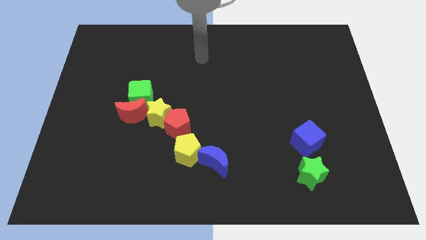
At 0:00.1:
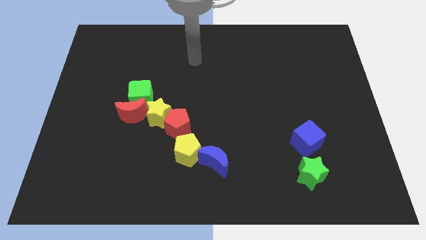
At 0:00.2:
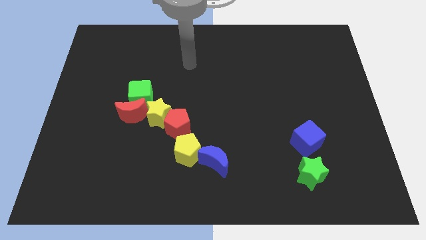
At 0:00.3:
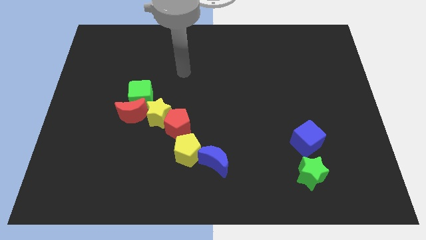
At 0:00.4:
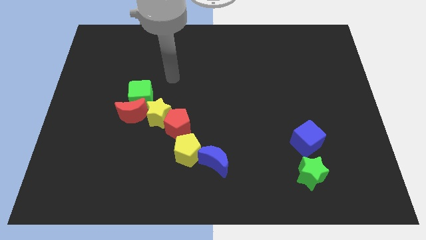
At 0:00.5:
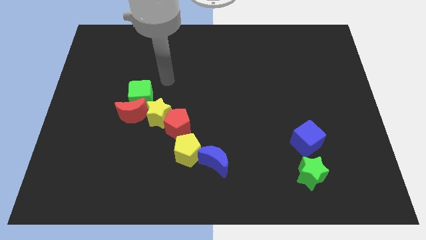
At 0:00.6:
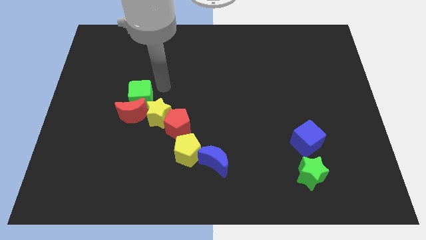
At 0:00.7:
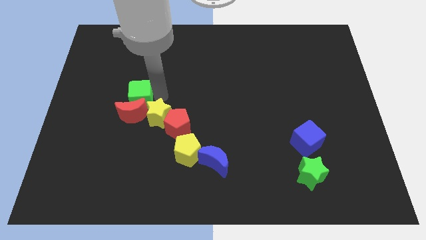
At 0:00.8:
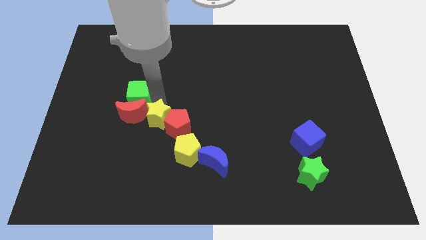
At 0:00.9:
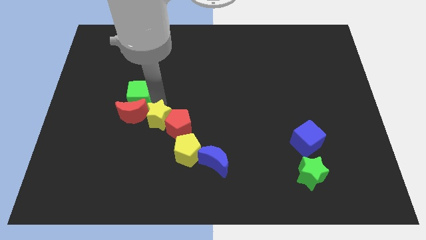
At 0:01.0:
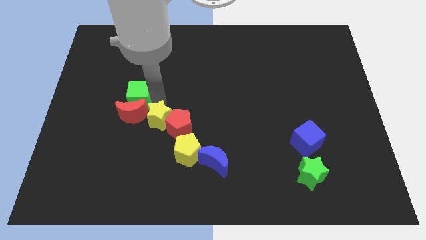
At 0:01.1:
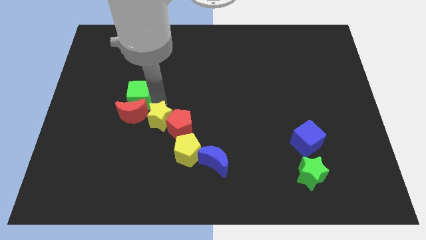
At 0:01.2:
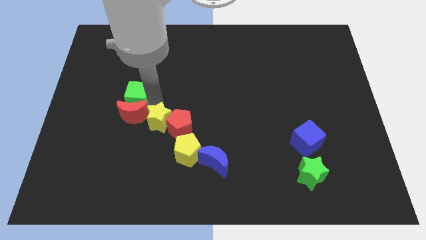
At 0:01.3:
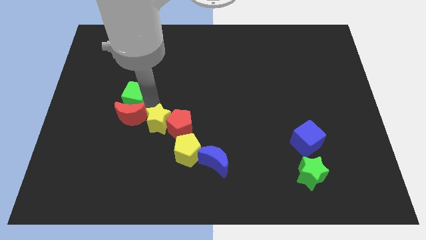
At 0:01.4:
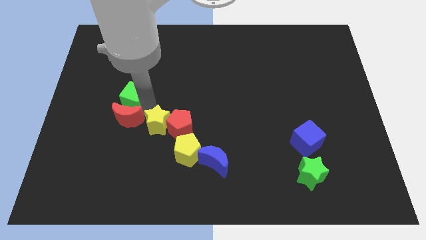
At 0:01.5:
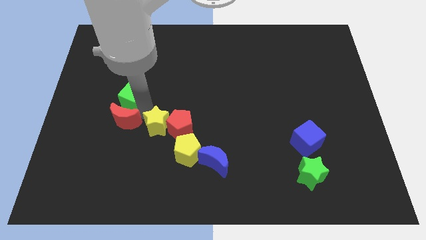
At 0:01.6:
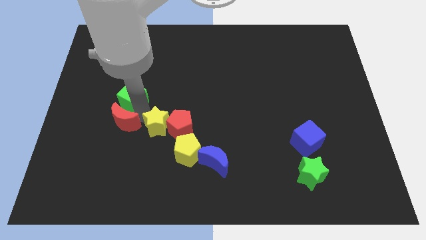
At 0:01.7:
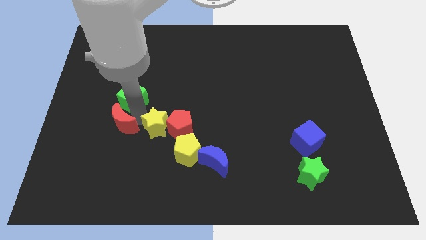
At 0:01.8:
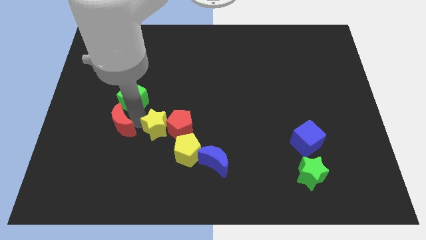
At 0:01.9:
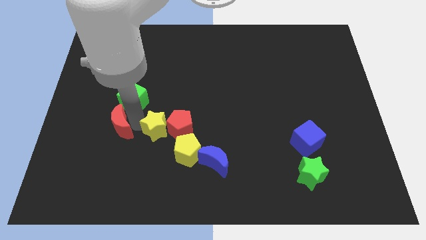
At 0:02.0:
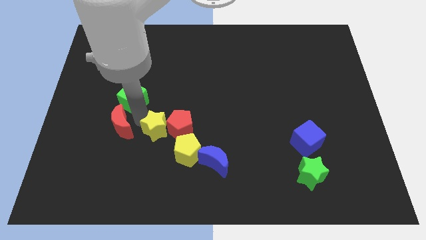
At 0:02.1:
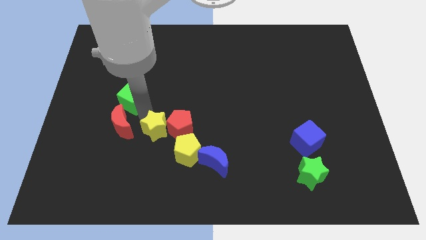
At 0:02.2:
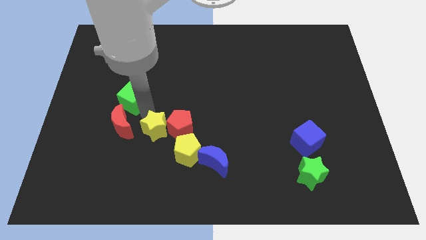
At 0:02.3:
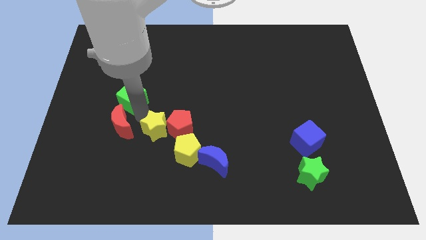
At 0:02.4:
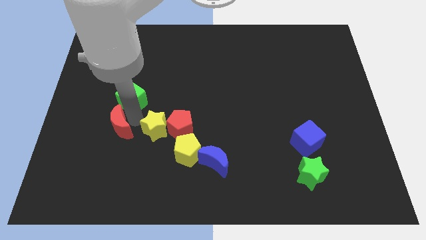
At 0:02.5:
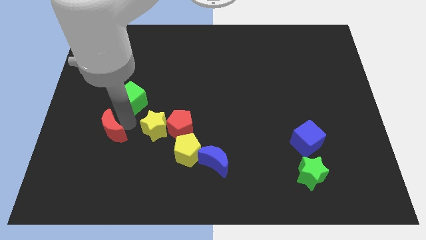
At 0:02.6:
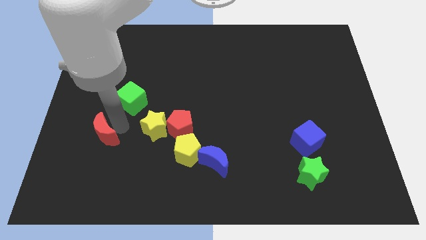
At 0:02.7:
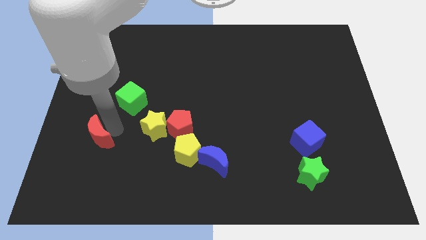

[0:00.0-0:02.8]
separate the red moon from the green cube and yellow star

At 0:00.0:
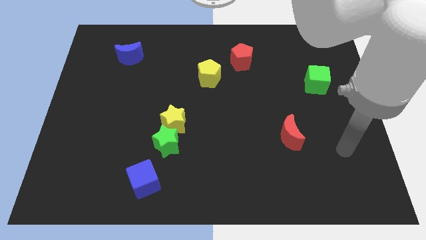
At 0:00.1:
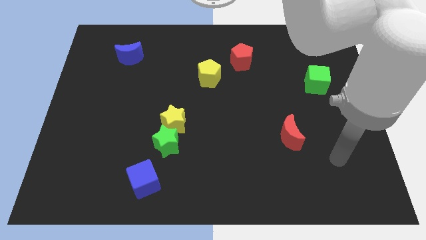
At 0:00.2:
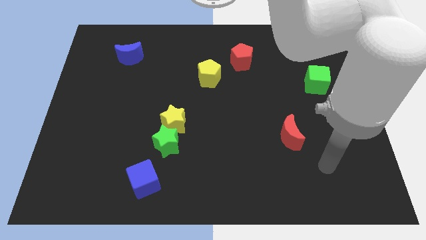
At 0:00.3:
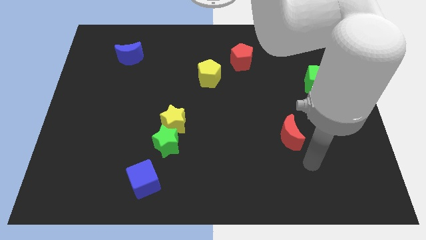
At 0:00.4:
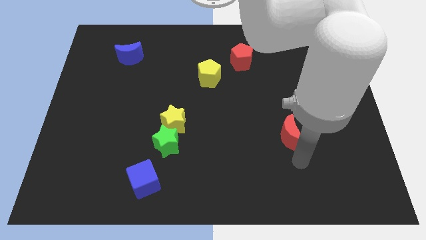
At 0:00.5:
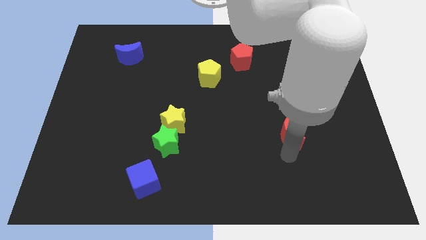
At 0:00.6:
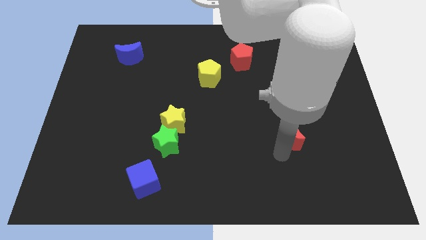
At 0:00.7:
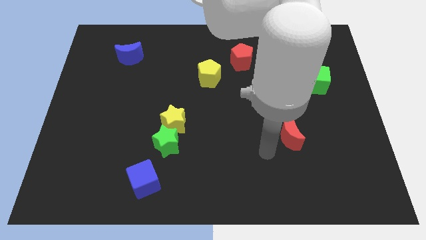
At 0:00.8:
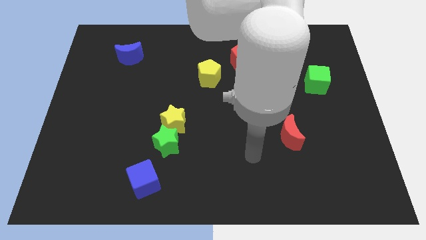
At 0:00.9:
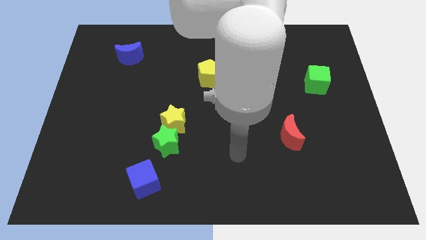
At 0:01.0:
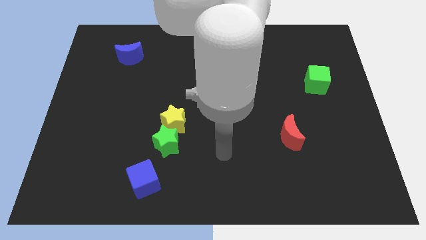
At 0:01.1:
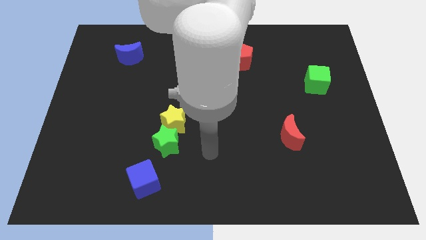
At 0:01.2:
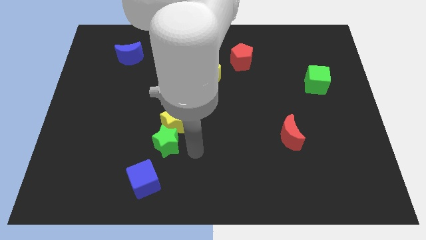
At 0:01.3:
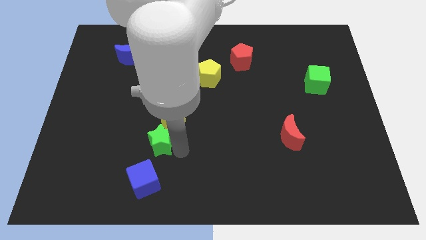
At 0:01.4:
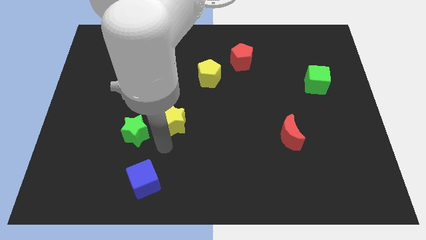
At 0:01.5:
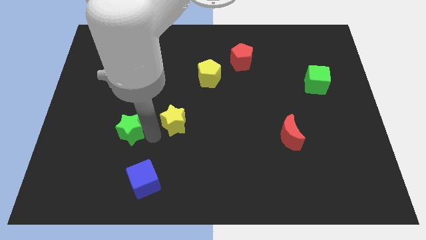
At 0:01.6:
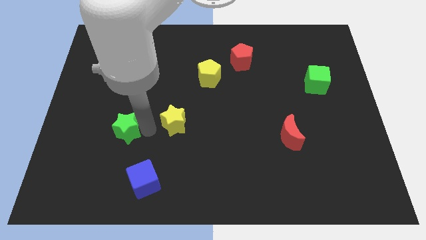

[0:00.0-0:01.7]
separate the yellow star from the green star

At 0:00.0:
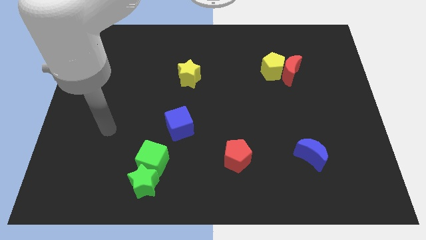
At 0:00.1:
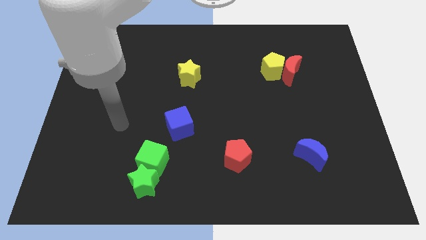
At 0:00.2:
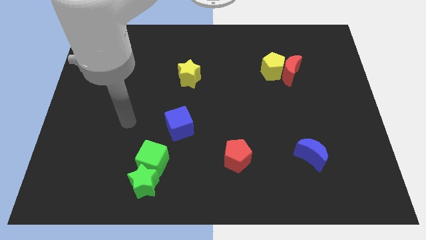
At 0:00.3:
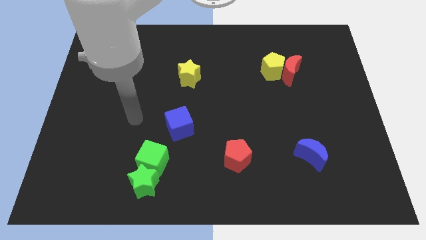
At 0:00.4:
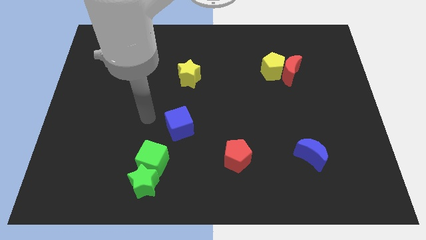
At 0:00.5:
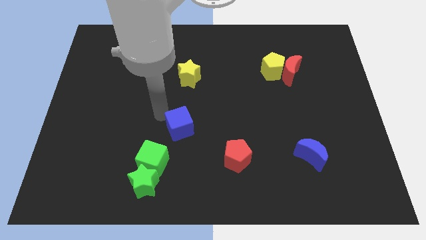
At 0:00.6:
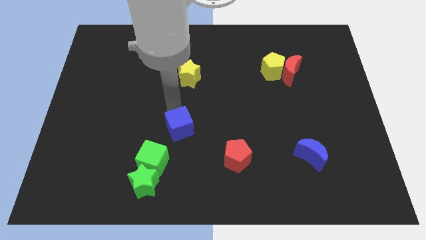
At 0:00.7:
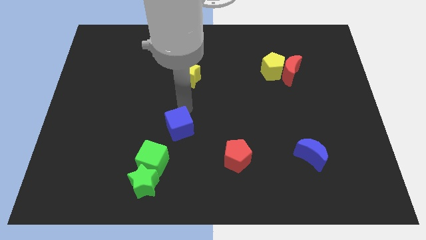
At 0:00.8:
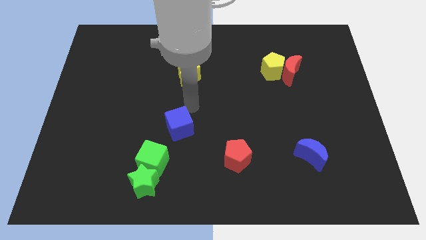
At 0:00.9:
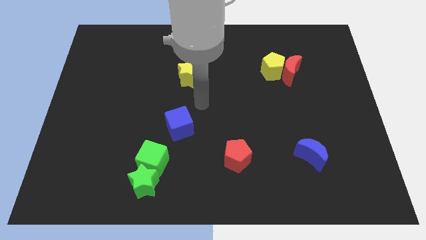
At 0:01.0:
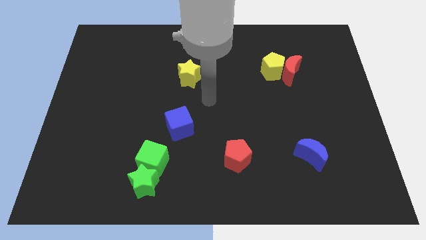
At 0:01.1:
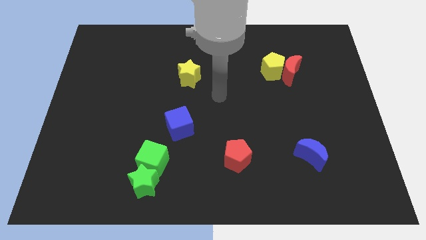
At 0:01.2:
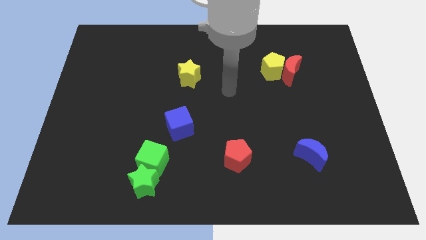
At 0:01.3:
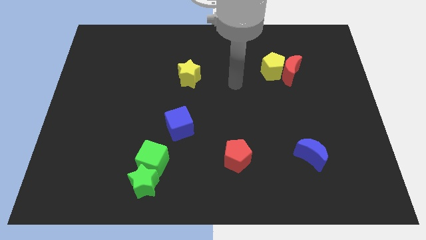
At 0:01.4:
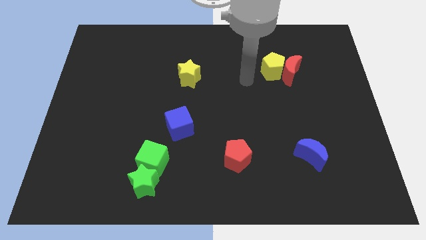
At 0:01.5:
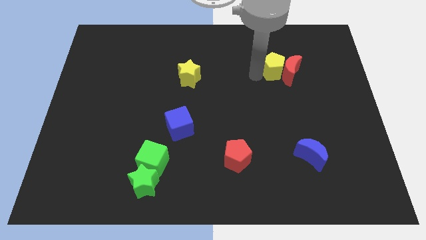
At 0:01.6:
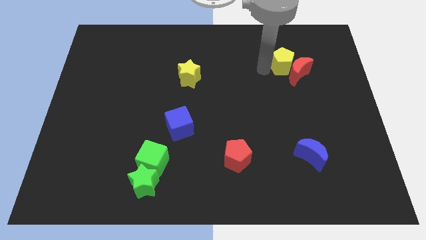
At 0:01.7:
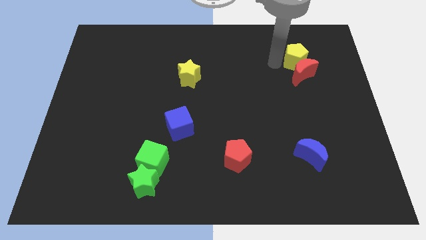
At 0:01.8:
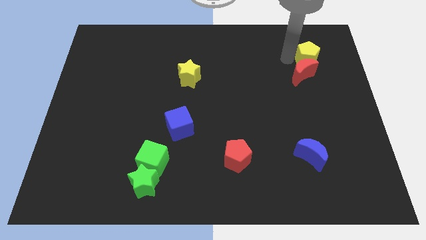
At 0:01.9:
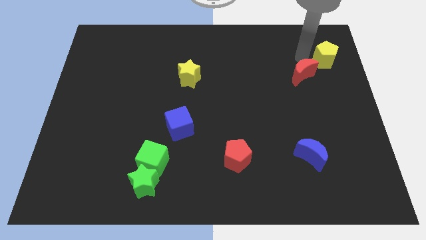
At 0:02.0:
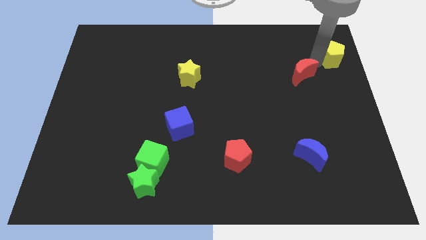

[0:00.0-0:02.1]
pull the red moon apart from the yellow pentagon

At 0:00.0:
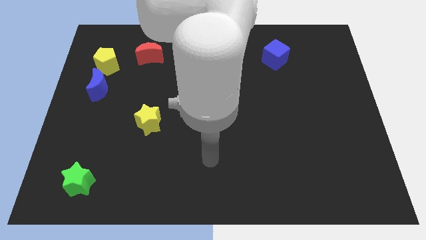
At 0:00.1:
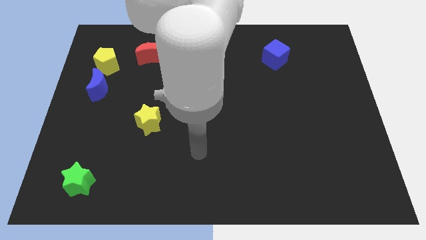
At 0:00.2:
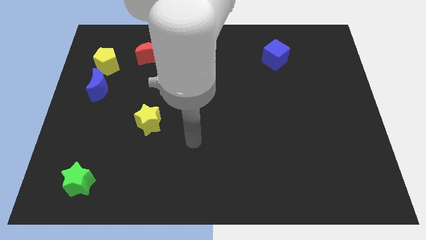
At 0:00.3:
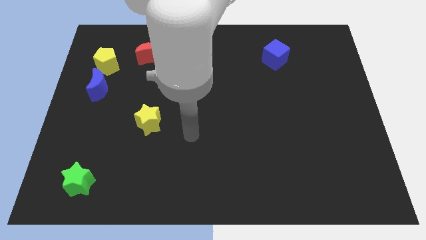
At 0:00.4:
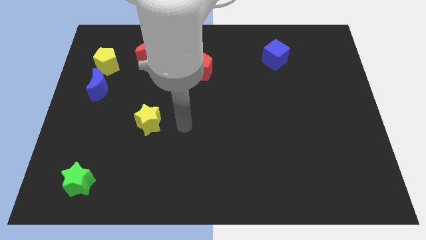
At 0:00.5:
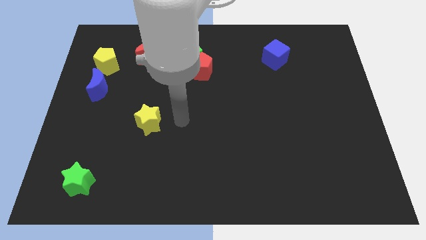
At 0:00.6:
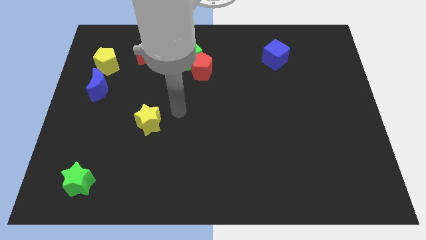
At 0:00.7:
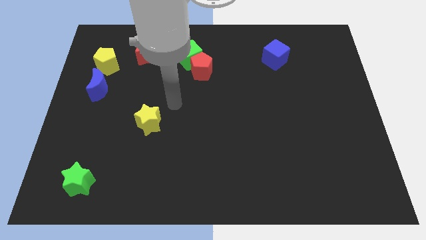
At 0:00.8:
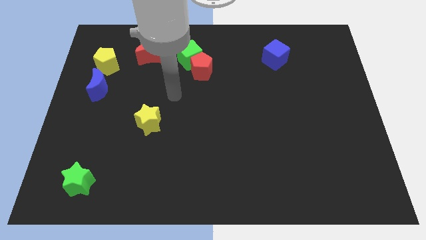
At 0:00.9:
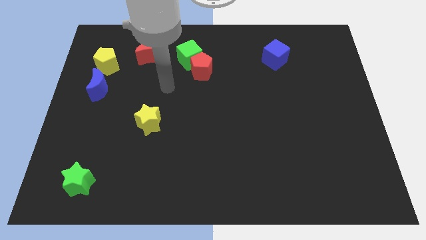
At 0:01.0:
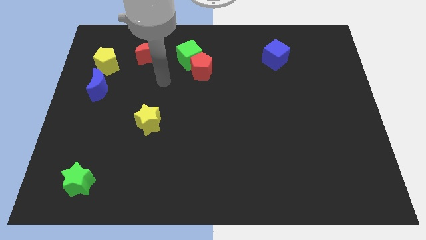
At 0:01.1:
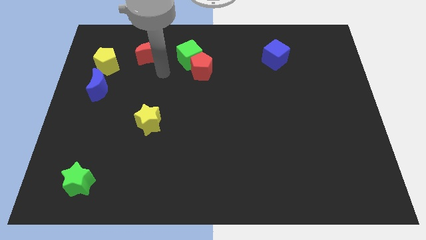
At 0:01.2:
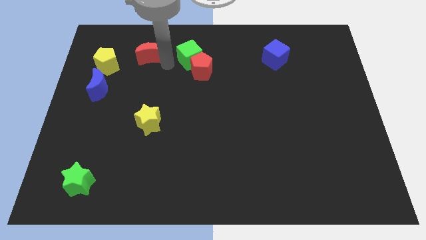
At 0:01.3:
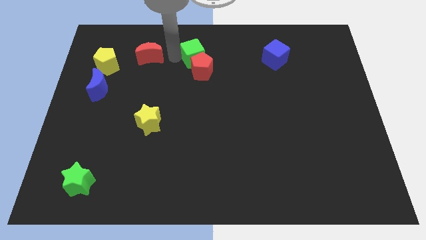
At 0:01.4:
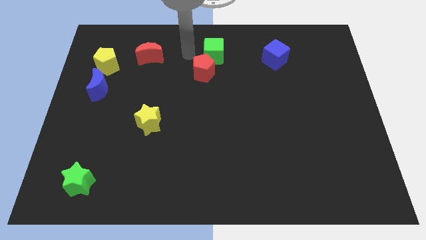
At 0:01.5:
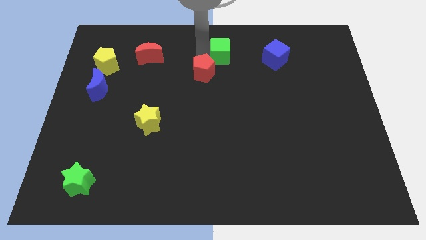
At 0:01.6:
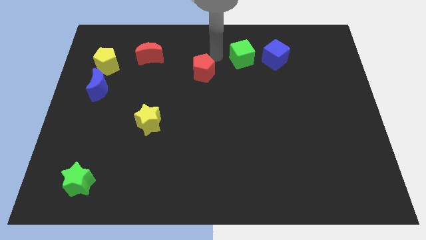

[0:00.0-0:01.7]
move the red pentagon away from the green cube

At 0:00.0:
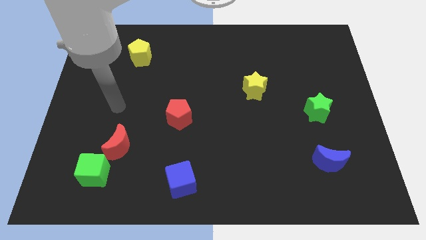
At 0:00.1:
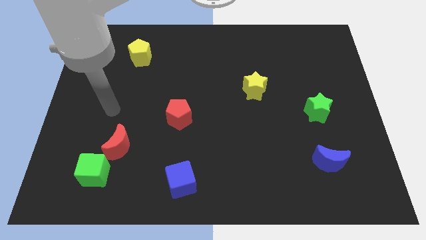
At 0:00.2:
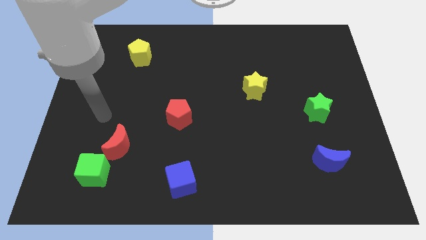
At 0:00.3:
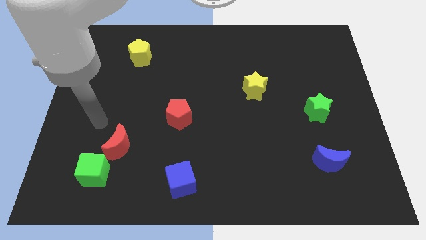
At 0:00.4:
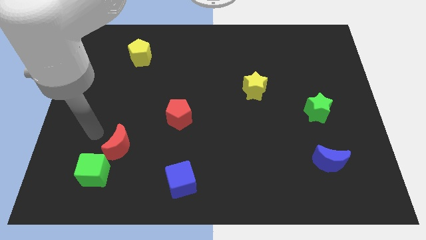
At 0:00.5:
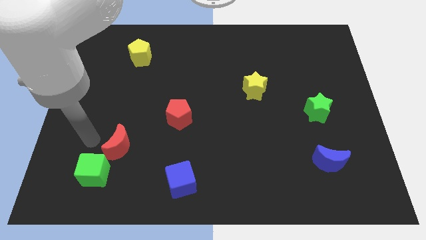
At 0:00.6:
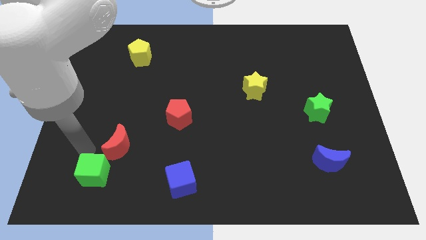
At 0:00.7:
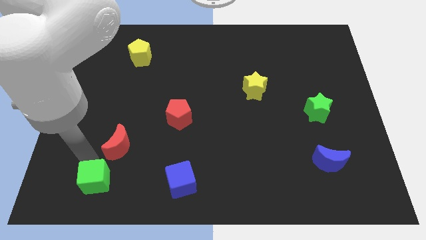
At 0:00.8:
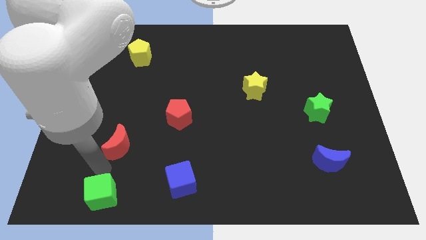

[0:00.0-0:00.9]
pull the red moon apart from the green cube

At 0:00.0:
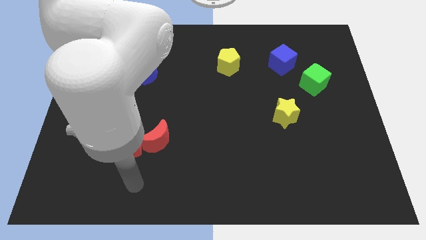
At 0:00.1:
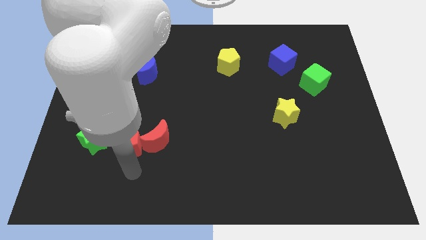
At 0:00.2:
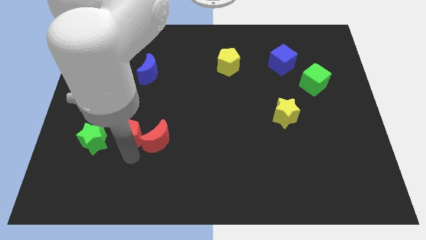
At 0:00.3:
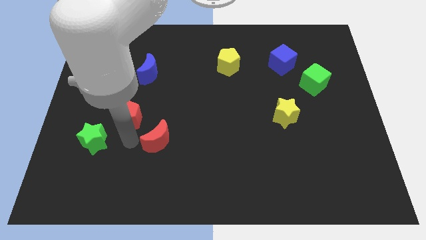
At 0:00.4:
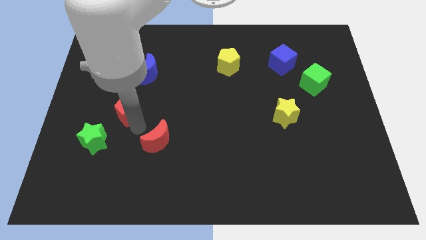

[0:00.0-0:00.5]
pull the red moon apart from the red pentagon
